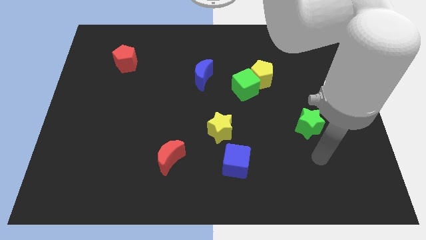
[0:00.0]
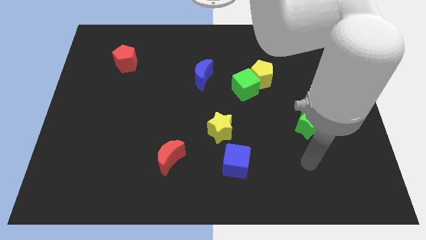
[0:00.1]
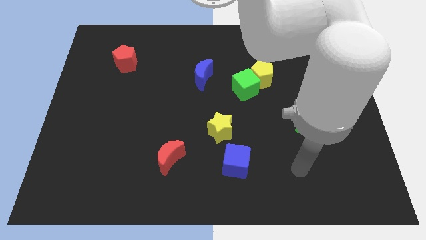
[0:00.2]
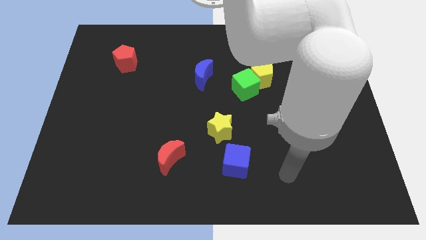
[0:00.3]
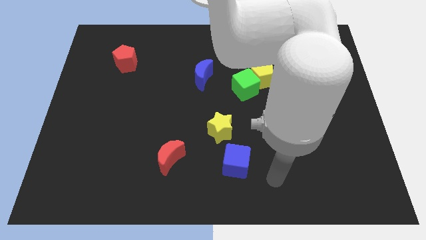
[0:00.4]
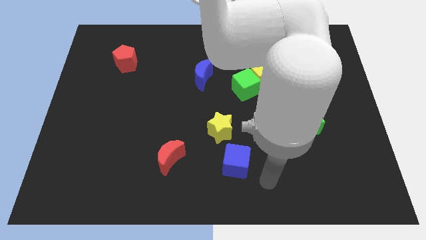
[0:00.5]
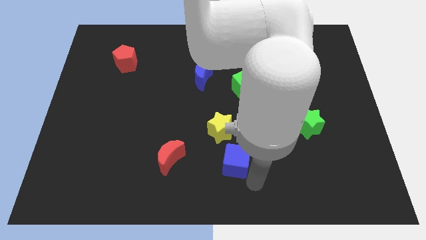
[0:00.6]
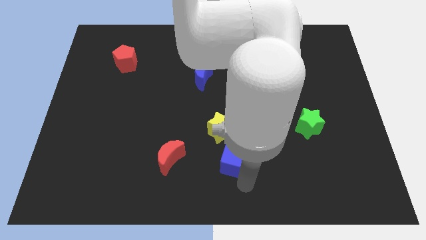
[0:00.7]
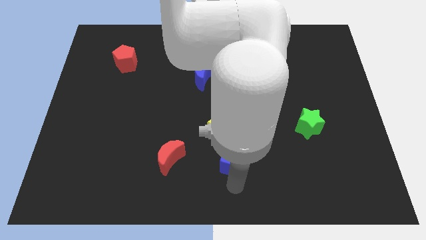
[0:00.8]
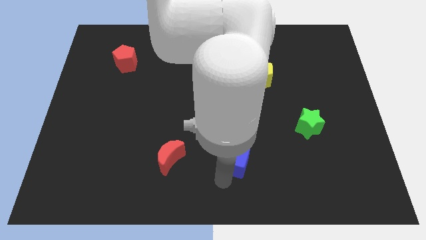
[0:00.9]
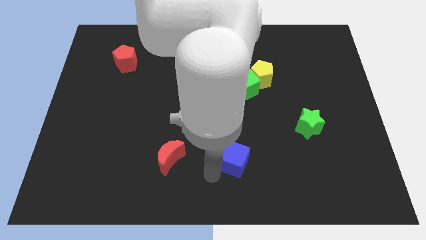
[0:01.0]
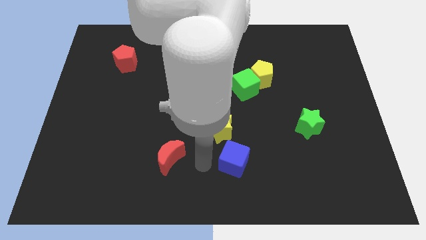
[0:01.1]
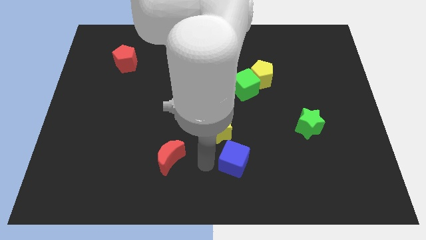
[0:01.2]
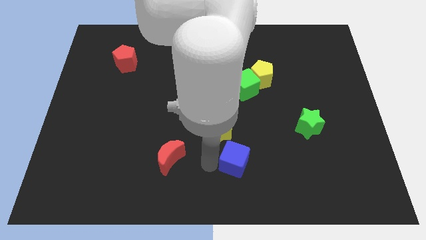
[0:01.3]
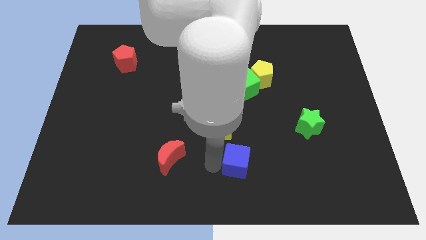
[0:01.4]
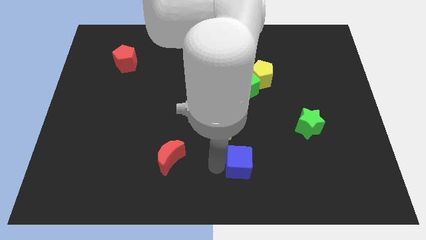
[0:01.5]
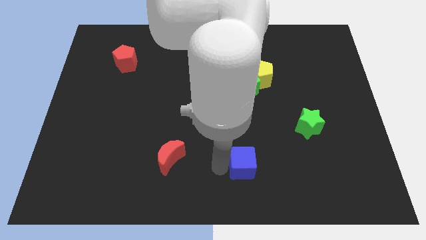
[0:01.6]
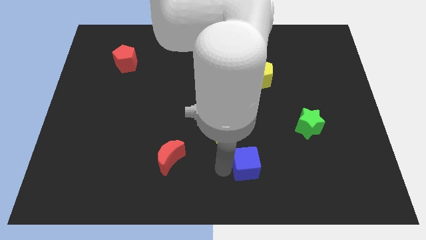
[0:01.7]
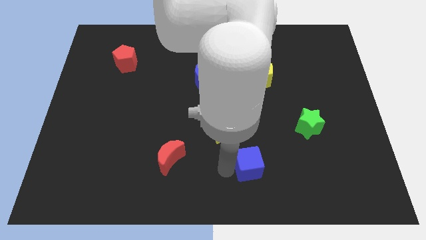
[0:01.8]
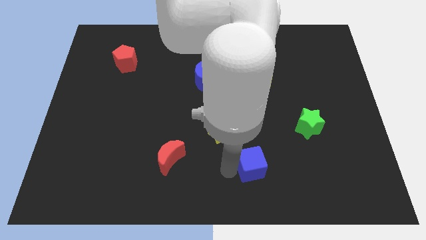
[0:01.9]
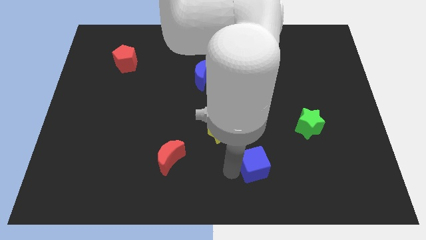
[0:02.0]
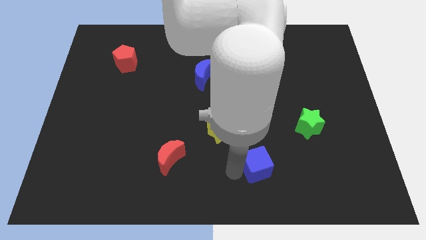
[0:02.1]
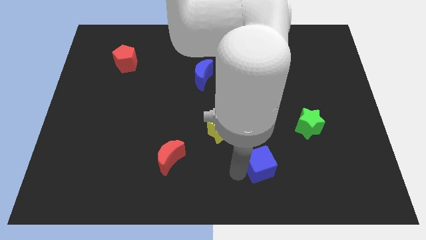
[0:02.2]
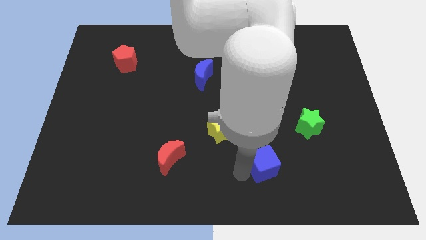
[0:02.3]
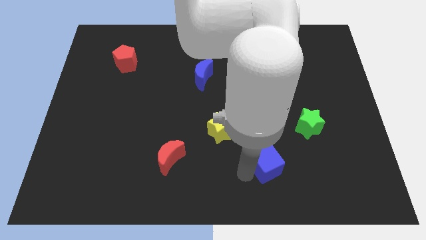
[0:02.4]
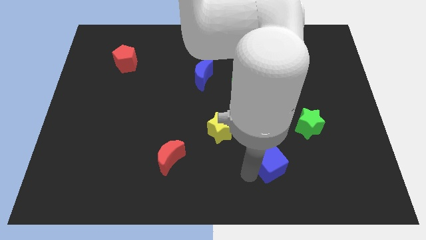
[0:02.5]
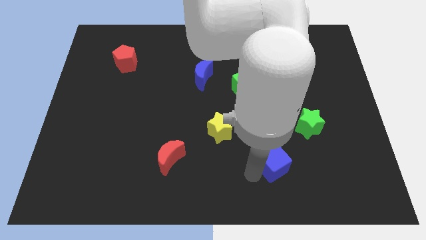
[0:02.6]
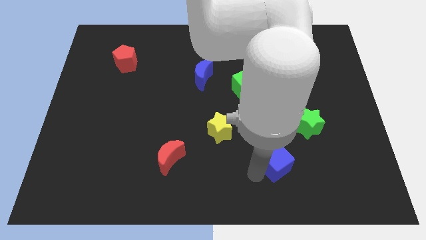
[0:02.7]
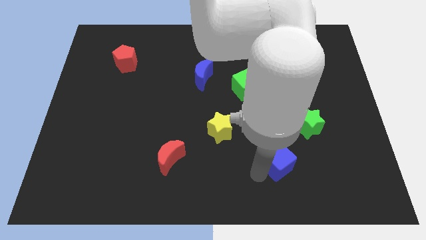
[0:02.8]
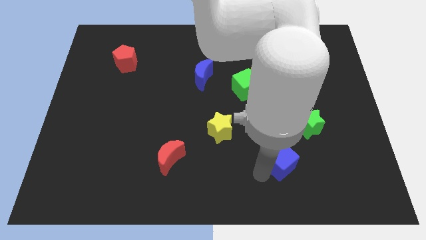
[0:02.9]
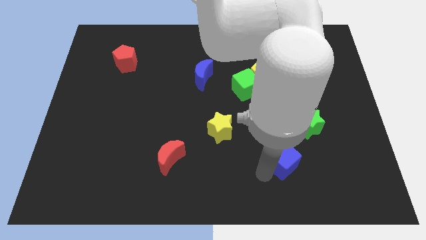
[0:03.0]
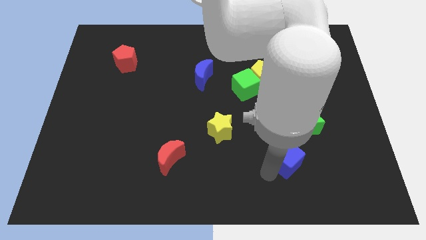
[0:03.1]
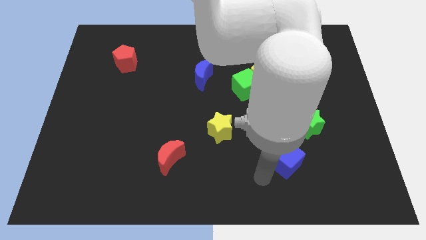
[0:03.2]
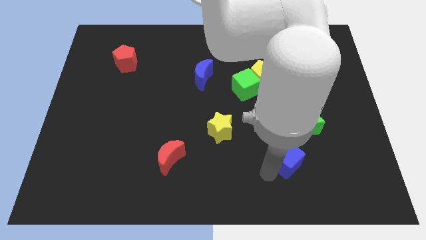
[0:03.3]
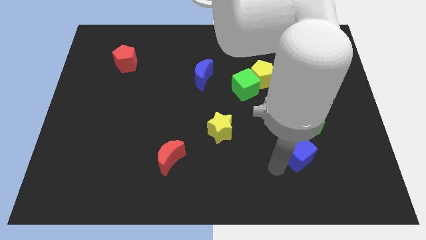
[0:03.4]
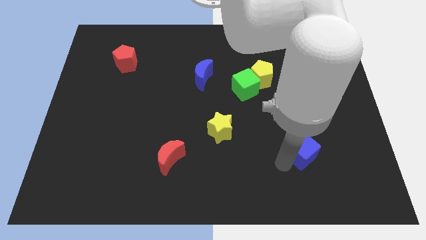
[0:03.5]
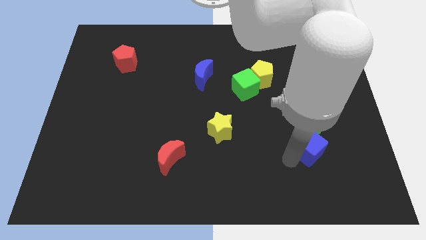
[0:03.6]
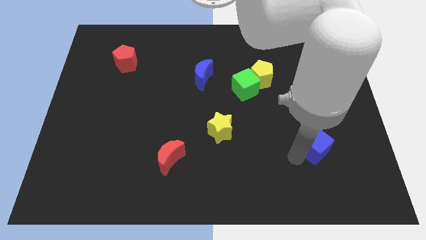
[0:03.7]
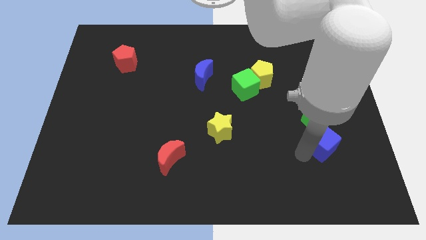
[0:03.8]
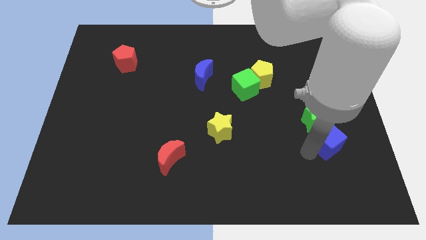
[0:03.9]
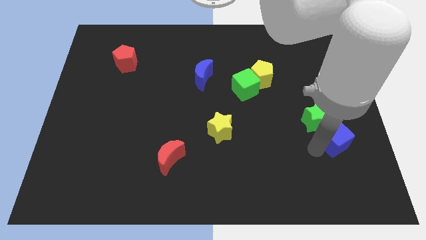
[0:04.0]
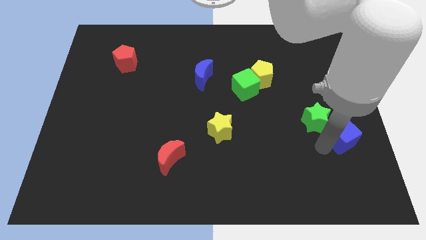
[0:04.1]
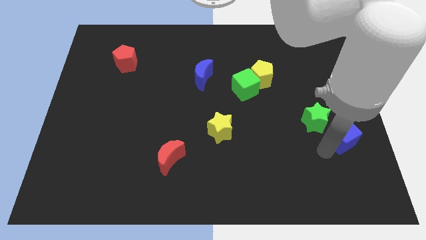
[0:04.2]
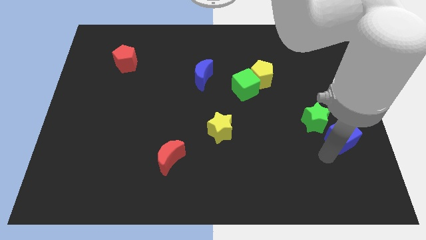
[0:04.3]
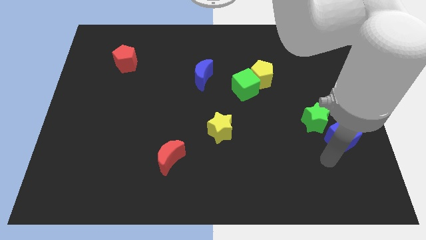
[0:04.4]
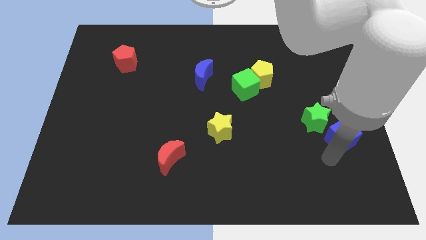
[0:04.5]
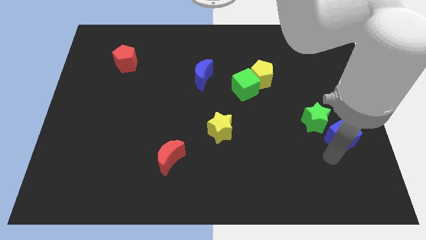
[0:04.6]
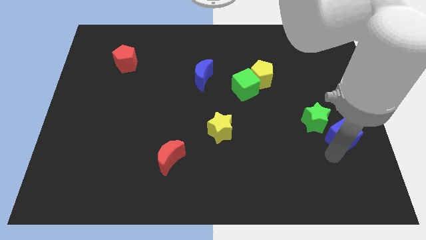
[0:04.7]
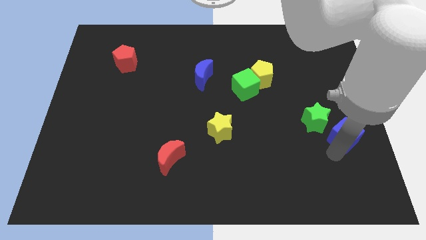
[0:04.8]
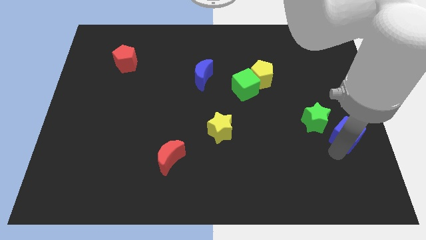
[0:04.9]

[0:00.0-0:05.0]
slide the blue cube to the center right

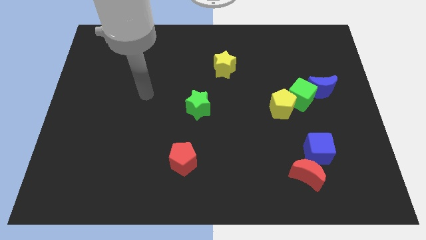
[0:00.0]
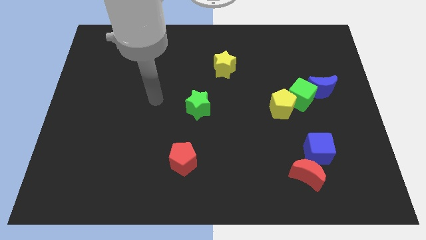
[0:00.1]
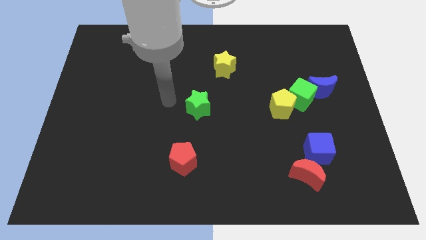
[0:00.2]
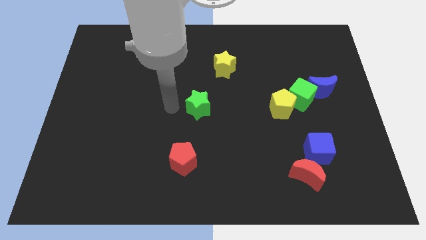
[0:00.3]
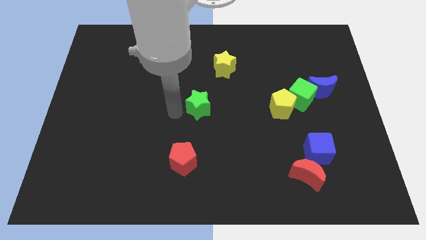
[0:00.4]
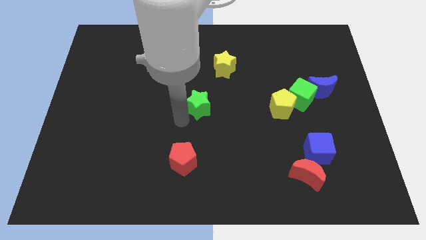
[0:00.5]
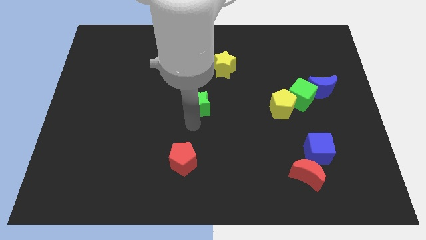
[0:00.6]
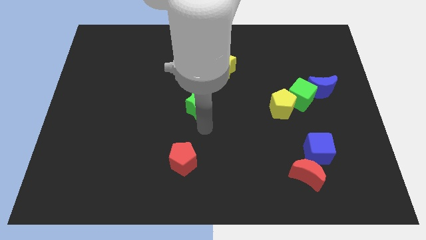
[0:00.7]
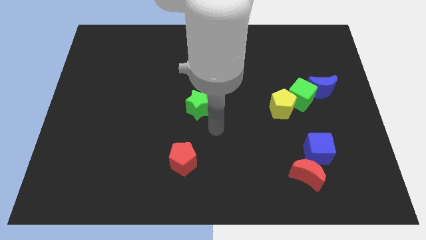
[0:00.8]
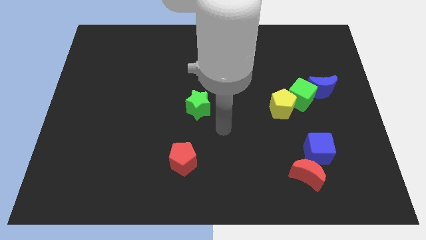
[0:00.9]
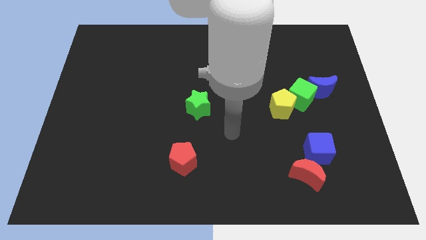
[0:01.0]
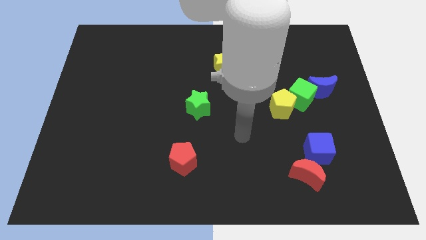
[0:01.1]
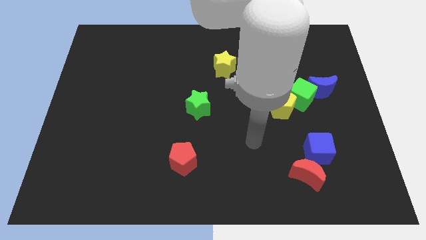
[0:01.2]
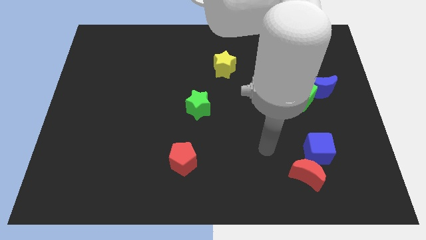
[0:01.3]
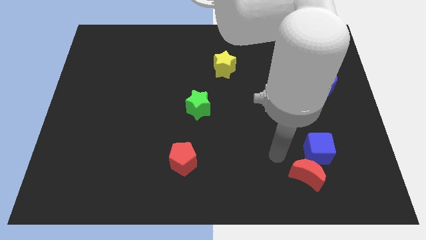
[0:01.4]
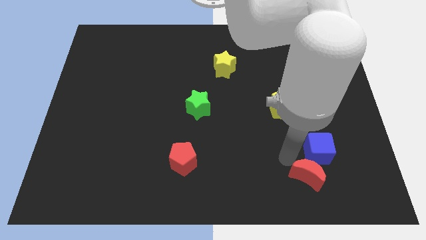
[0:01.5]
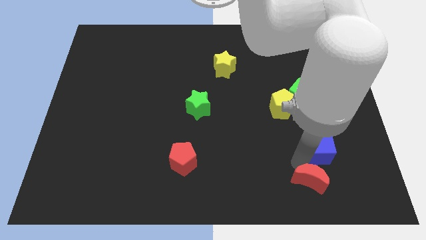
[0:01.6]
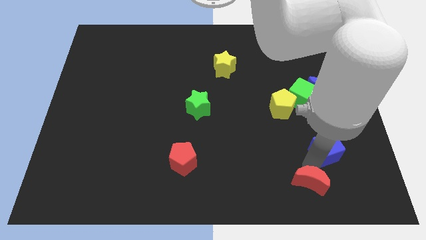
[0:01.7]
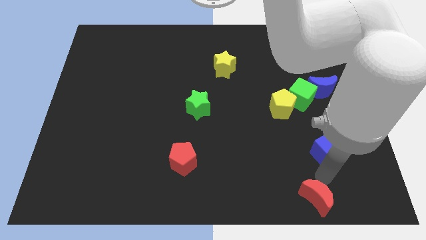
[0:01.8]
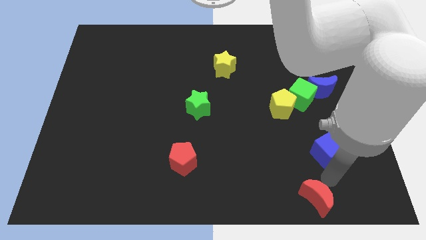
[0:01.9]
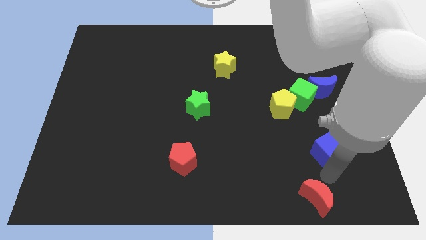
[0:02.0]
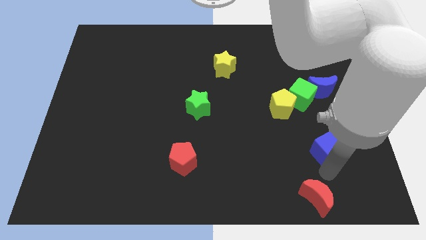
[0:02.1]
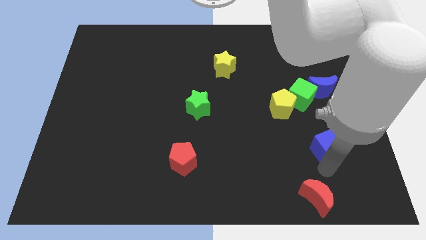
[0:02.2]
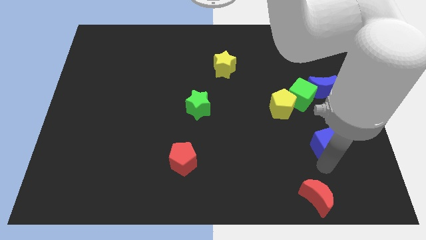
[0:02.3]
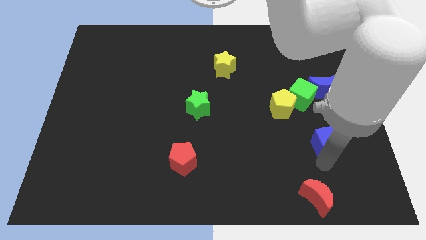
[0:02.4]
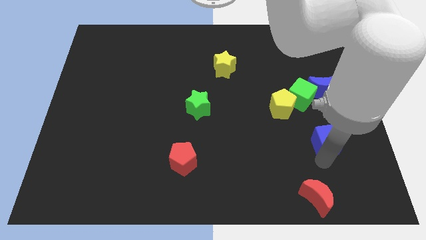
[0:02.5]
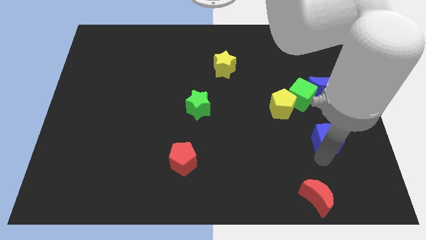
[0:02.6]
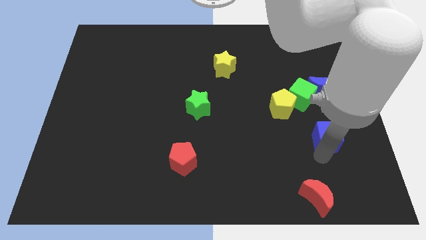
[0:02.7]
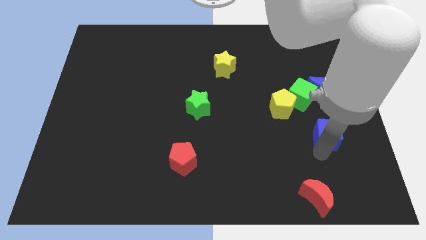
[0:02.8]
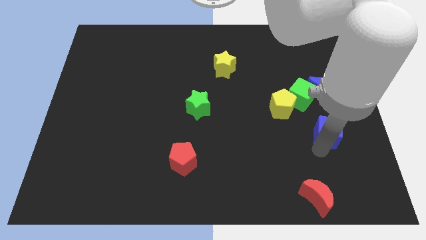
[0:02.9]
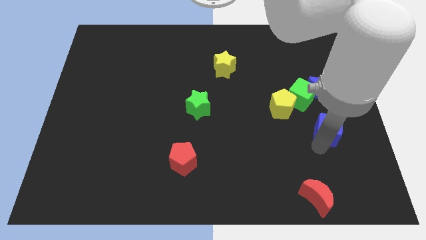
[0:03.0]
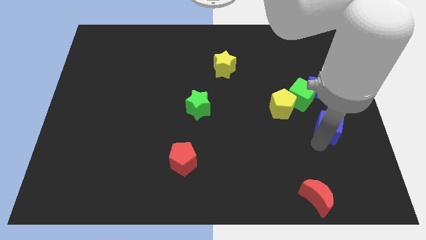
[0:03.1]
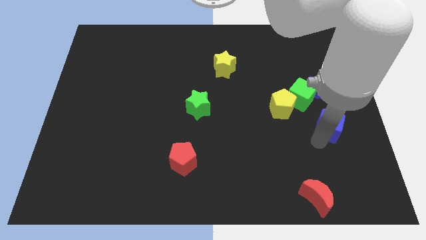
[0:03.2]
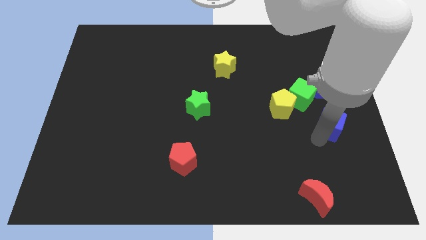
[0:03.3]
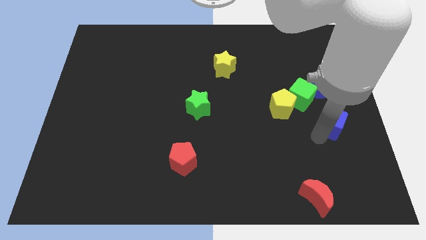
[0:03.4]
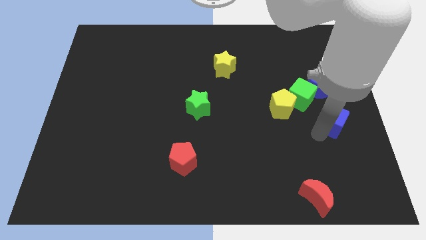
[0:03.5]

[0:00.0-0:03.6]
push the blue cube to the right side of the board
